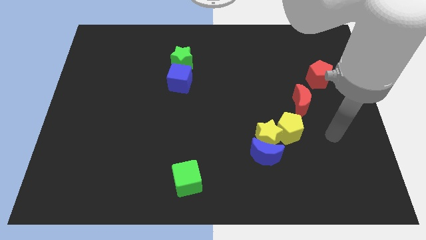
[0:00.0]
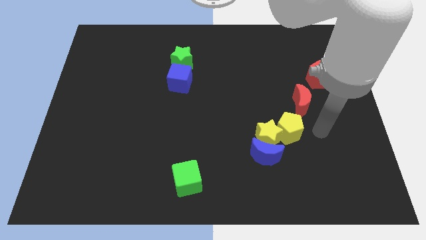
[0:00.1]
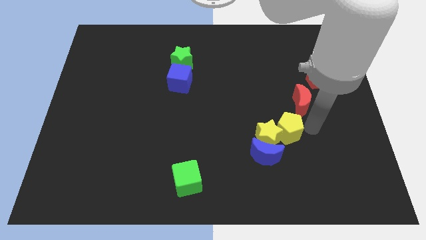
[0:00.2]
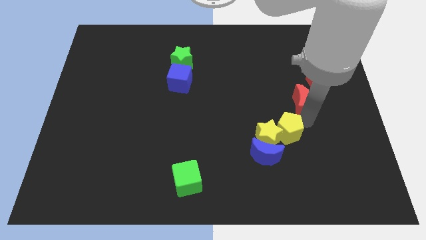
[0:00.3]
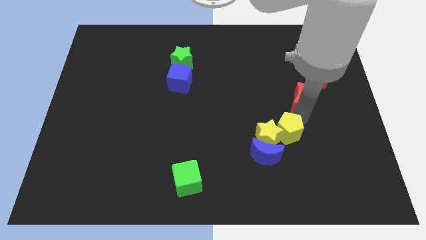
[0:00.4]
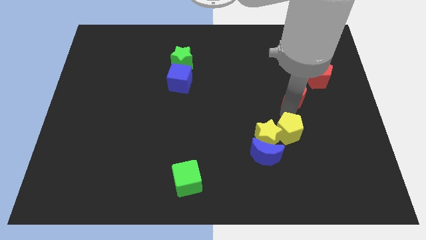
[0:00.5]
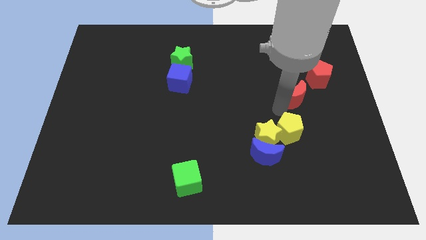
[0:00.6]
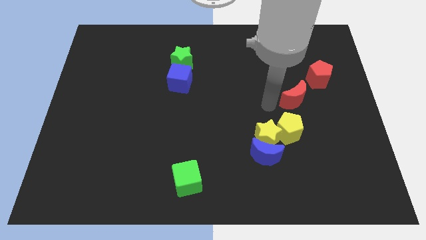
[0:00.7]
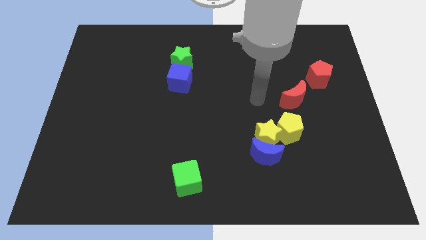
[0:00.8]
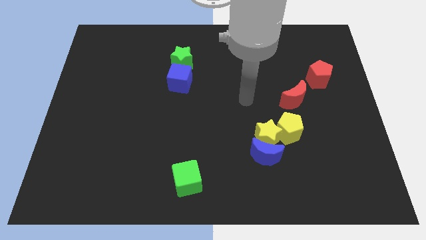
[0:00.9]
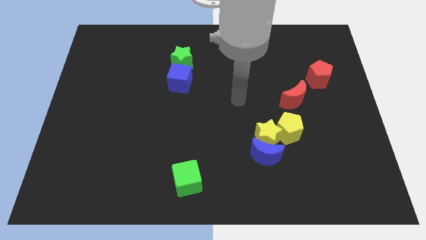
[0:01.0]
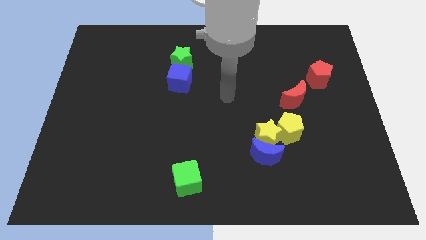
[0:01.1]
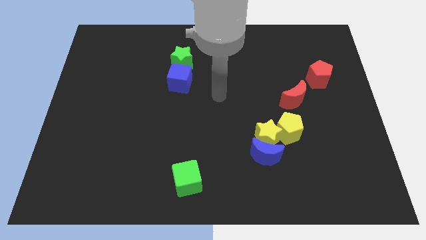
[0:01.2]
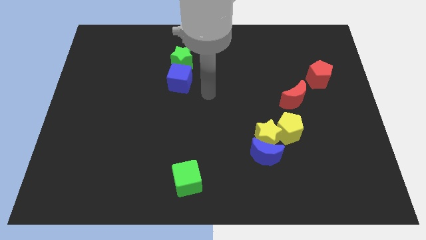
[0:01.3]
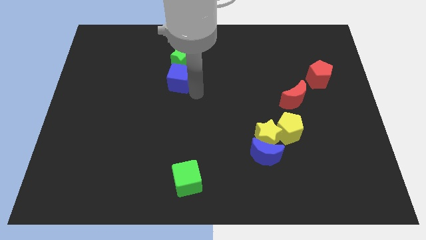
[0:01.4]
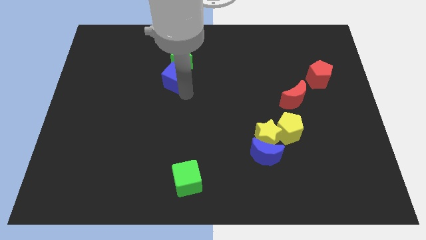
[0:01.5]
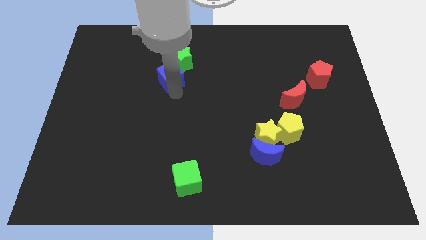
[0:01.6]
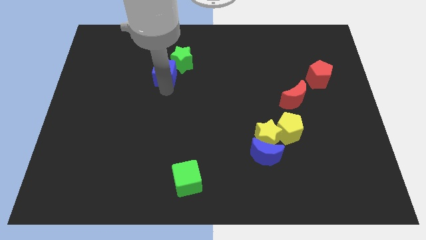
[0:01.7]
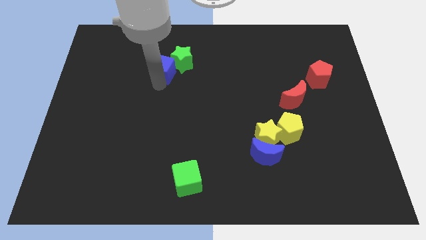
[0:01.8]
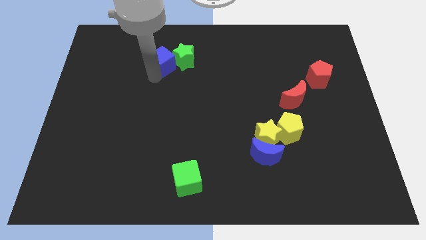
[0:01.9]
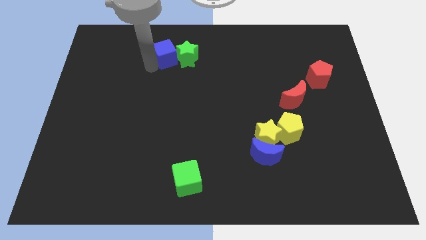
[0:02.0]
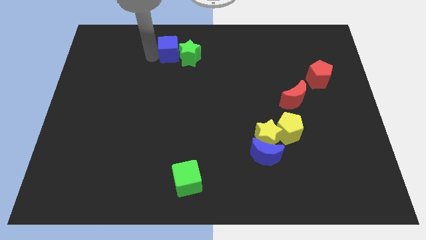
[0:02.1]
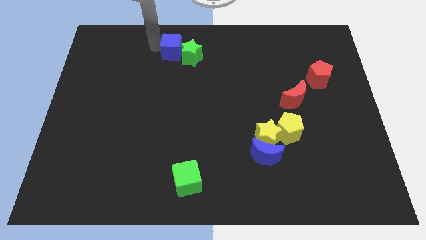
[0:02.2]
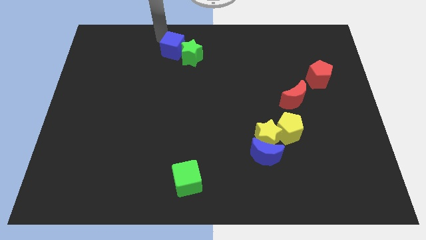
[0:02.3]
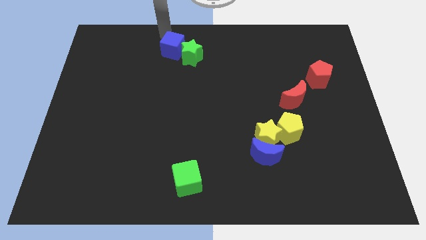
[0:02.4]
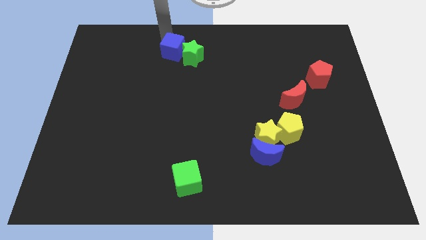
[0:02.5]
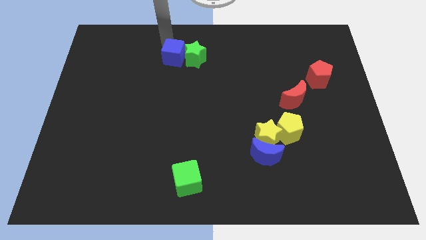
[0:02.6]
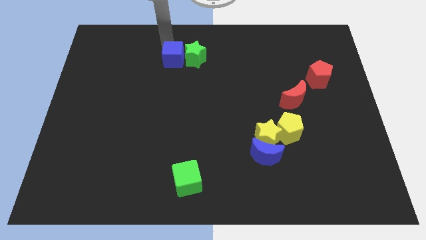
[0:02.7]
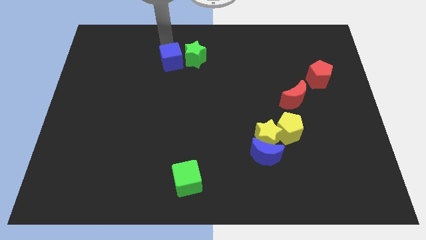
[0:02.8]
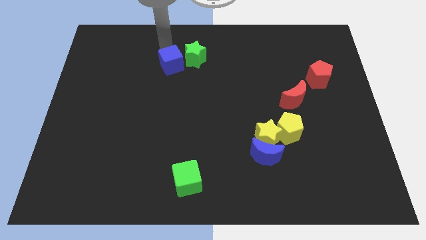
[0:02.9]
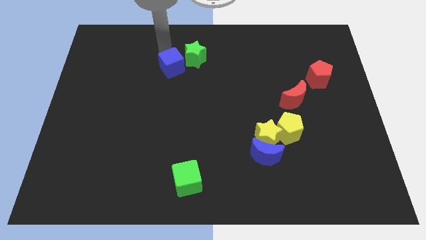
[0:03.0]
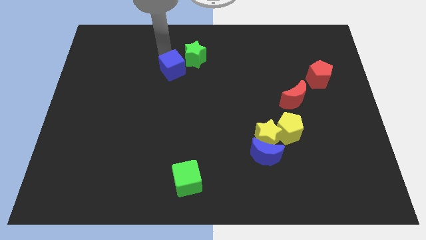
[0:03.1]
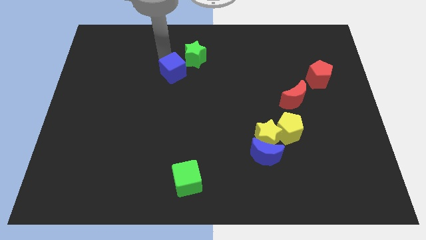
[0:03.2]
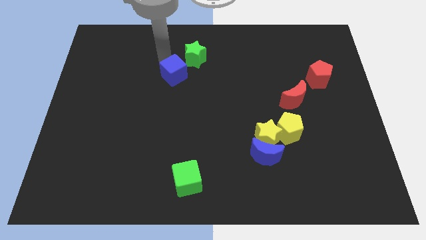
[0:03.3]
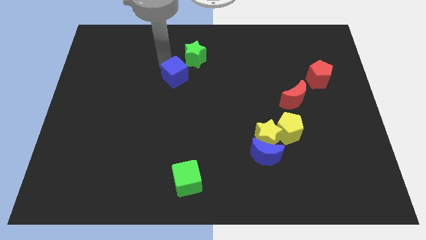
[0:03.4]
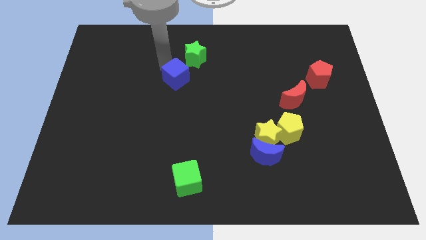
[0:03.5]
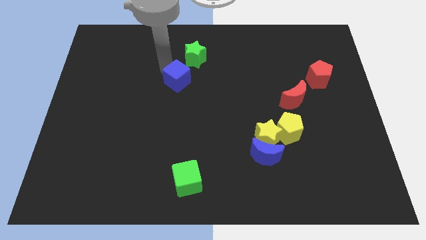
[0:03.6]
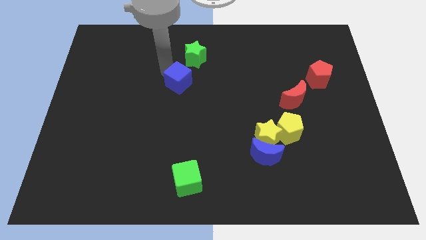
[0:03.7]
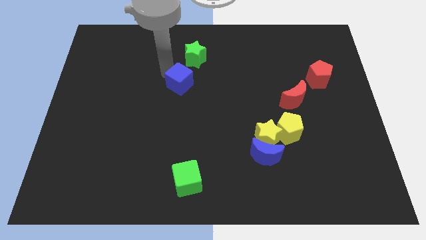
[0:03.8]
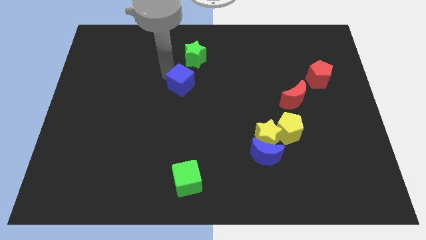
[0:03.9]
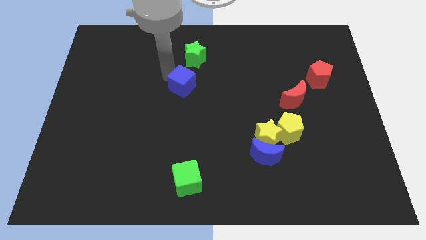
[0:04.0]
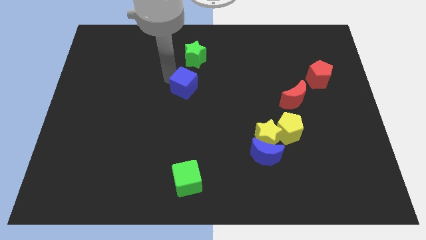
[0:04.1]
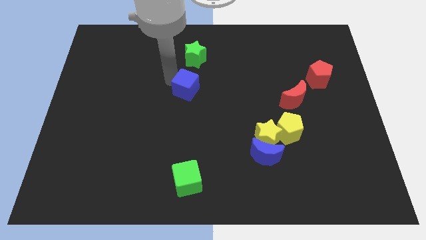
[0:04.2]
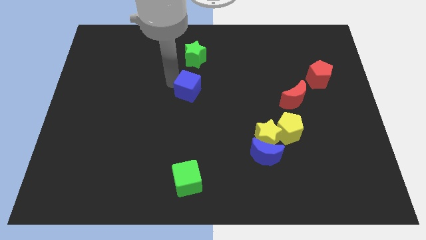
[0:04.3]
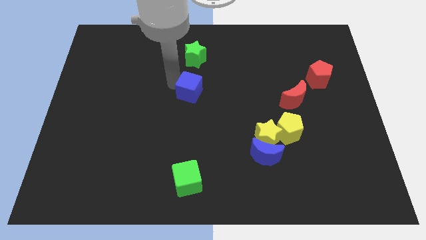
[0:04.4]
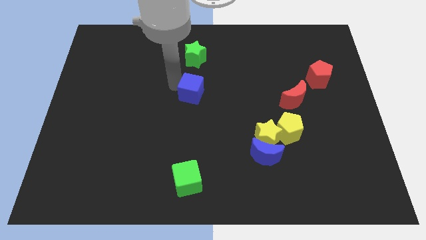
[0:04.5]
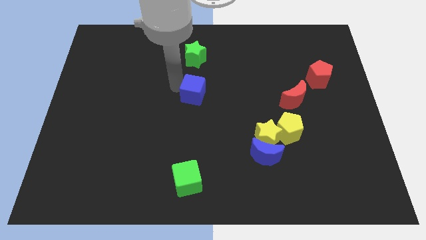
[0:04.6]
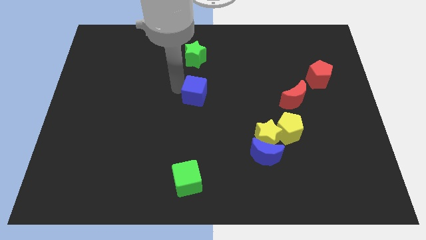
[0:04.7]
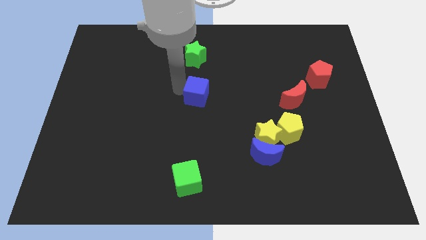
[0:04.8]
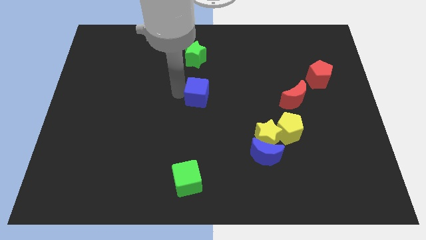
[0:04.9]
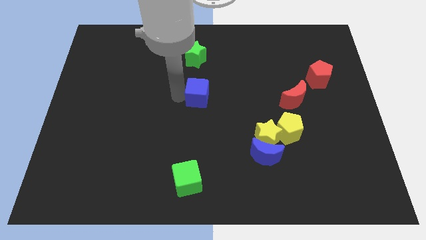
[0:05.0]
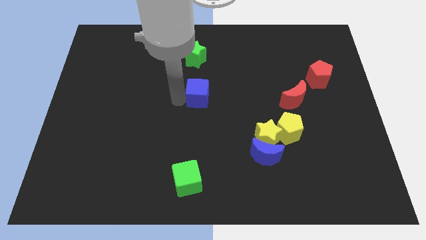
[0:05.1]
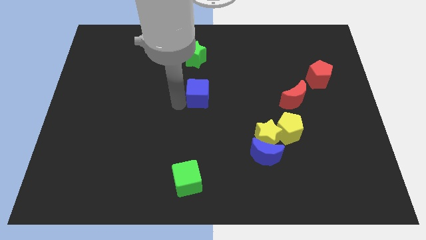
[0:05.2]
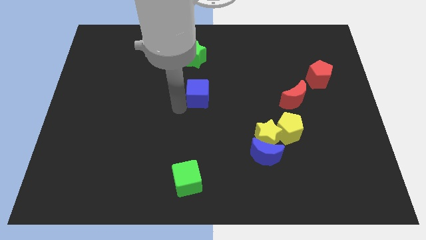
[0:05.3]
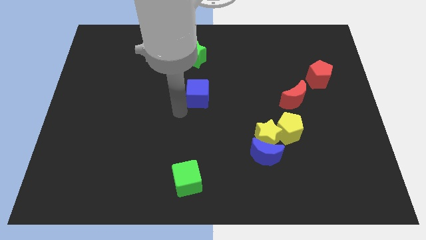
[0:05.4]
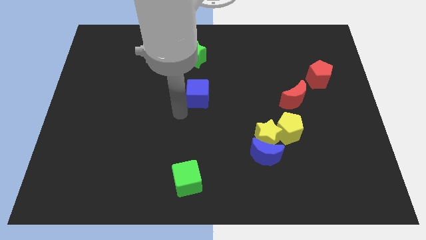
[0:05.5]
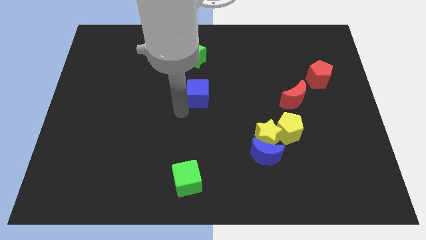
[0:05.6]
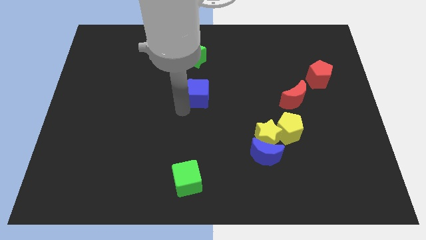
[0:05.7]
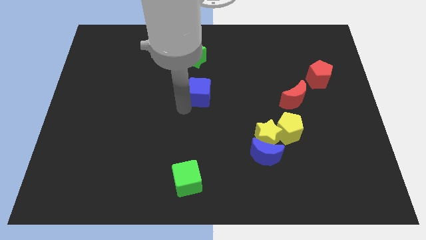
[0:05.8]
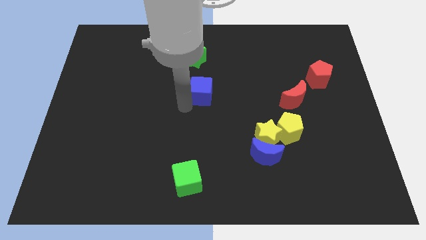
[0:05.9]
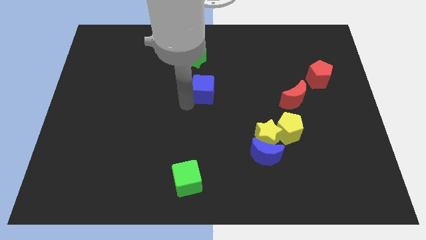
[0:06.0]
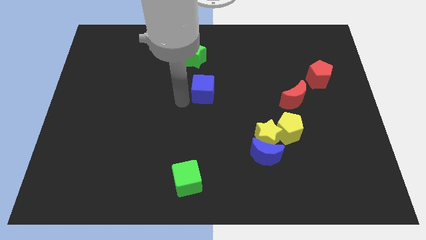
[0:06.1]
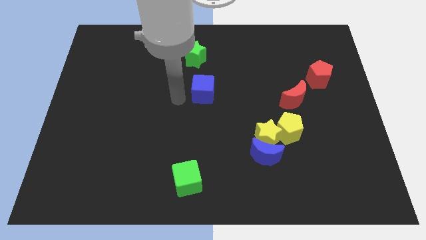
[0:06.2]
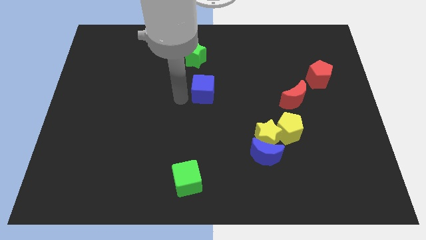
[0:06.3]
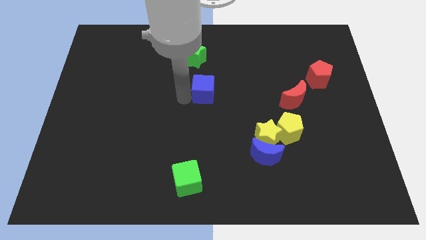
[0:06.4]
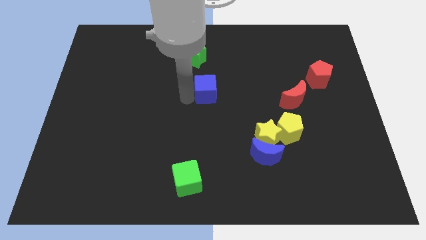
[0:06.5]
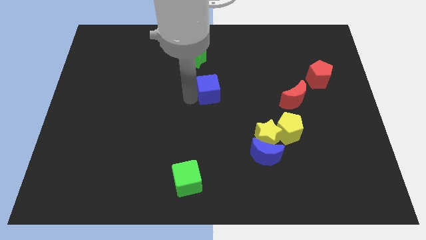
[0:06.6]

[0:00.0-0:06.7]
slightly push the blue cube to the right

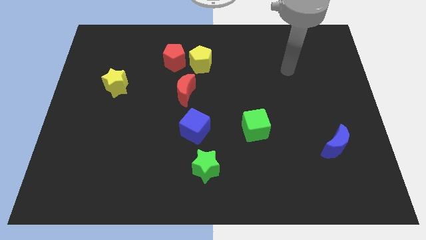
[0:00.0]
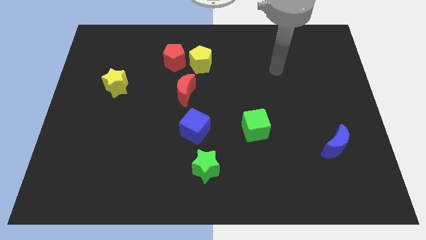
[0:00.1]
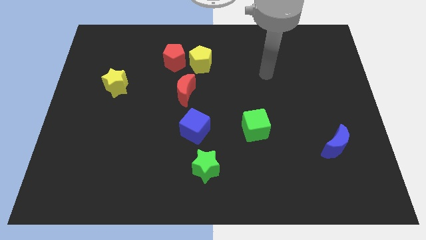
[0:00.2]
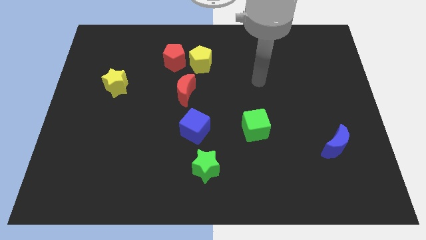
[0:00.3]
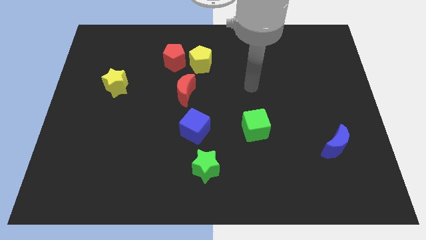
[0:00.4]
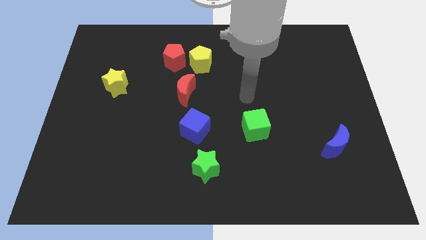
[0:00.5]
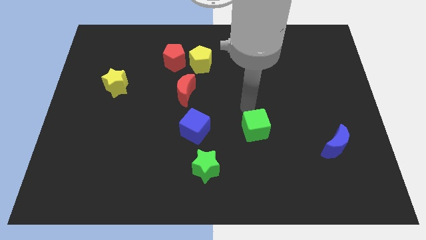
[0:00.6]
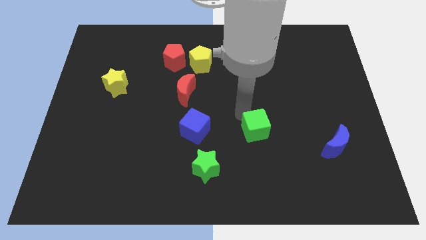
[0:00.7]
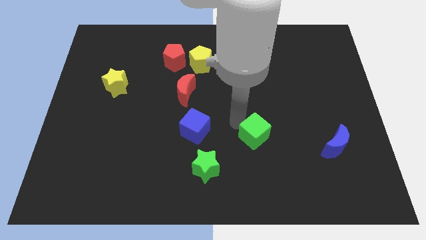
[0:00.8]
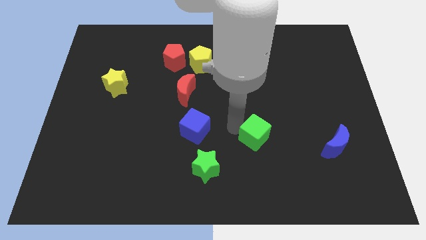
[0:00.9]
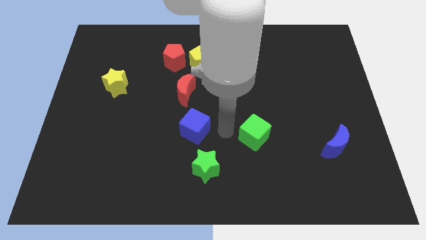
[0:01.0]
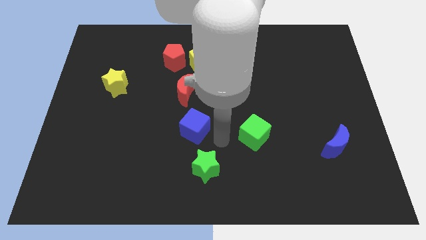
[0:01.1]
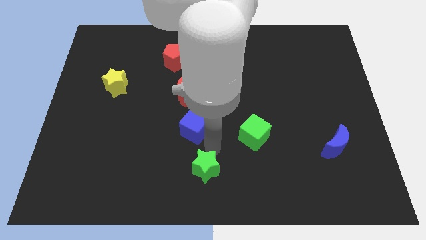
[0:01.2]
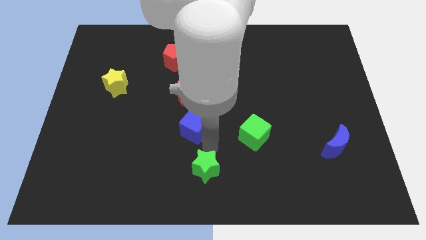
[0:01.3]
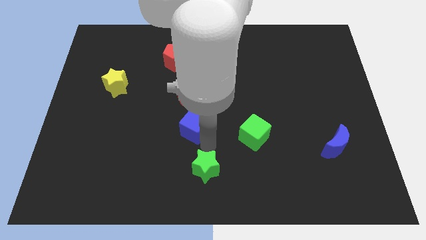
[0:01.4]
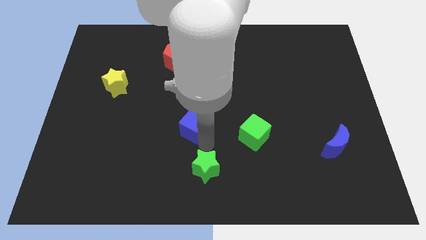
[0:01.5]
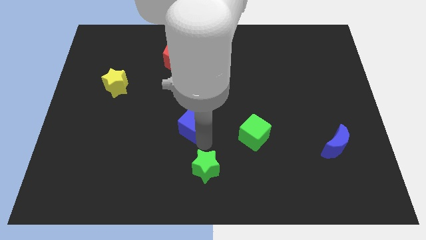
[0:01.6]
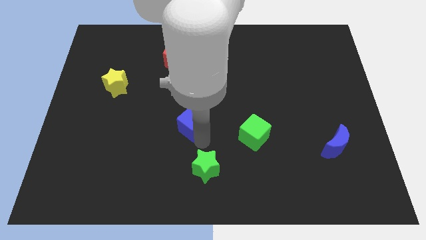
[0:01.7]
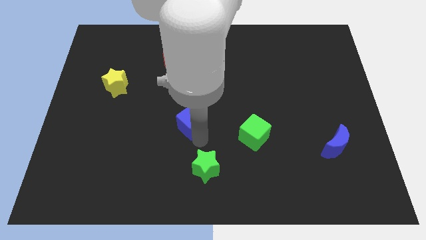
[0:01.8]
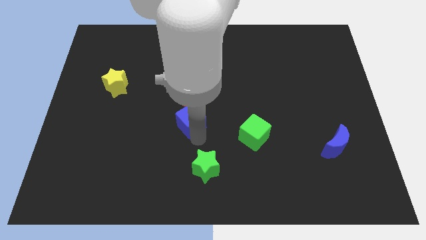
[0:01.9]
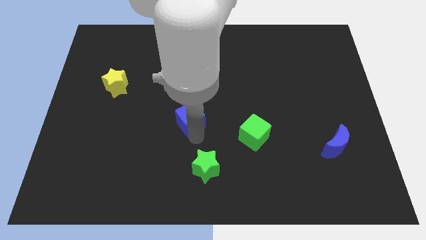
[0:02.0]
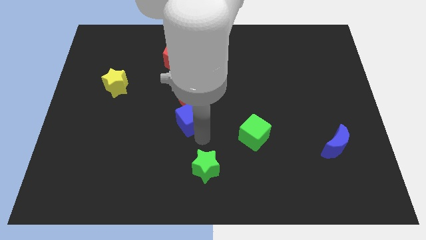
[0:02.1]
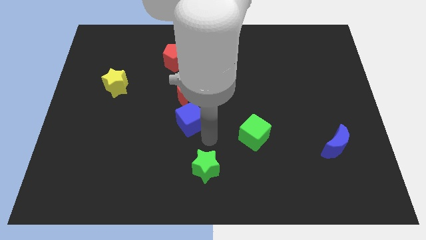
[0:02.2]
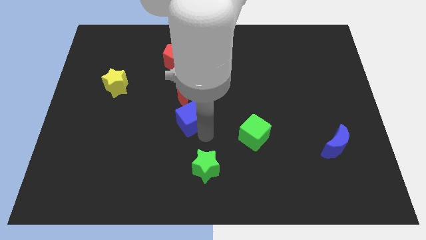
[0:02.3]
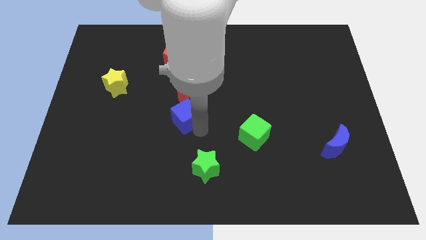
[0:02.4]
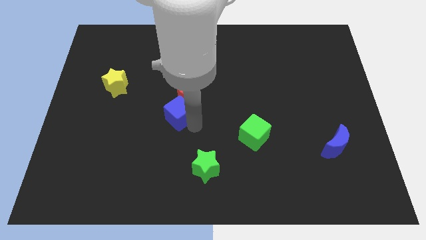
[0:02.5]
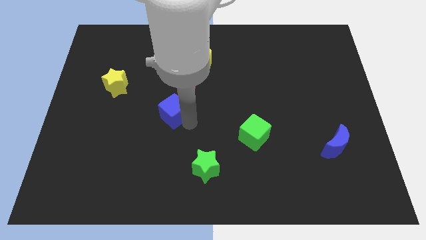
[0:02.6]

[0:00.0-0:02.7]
move the blue cube somewhat up and to the left
